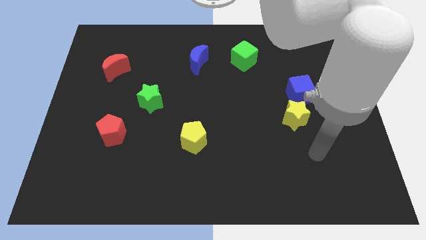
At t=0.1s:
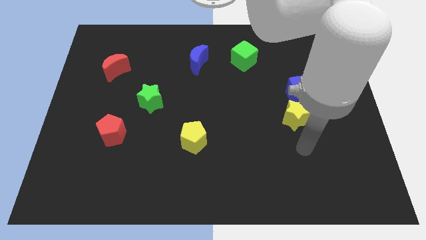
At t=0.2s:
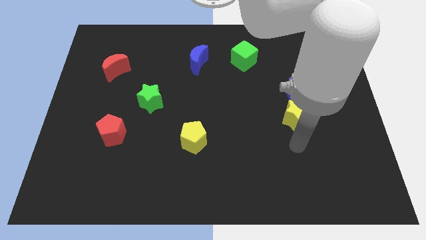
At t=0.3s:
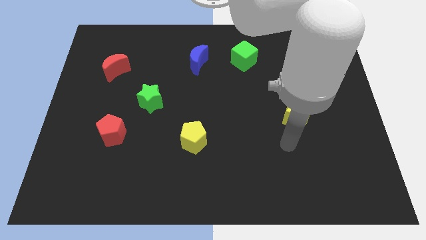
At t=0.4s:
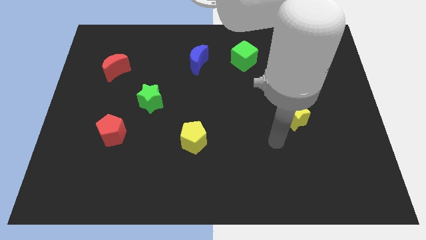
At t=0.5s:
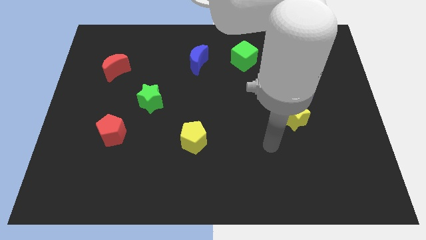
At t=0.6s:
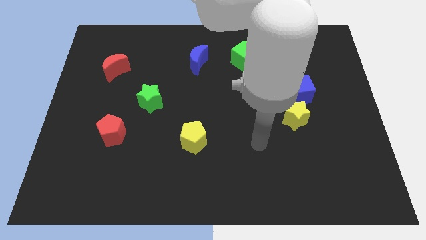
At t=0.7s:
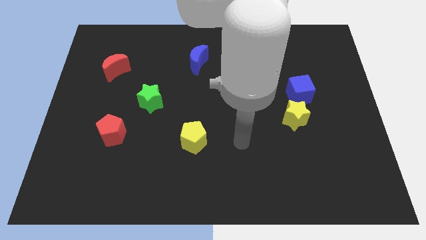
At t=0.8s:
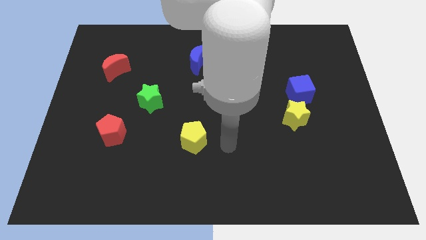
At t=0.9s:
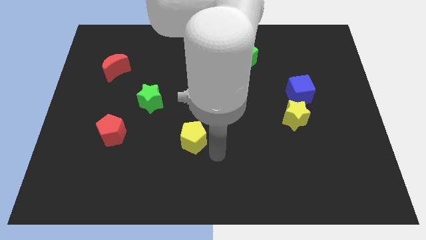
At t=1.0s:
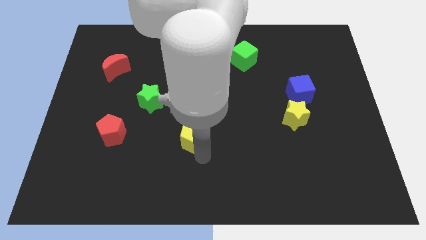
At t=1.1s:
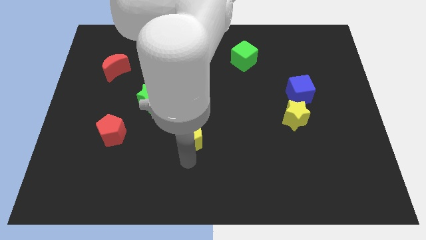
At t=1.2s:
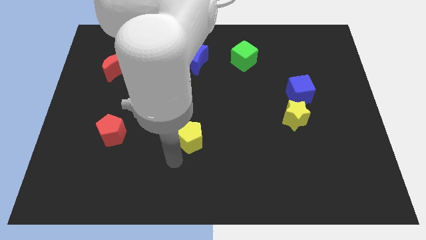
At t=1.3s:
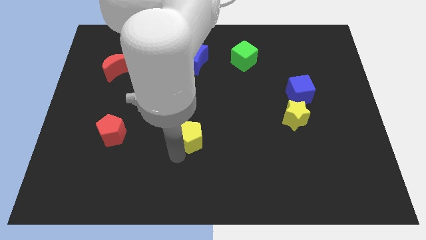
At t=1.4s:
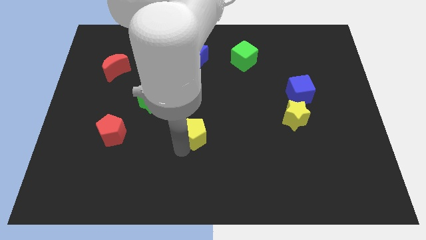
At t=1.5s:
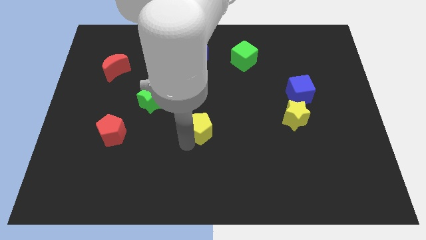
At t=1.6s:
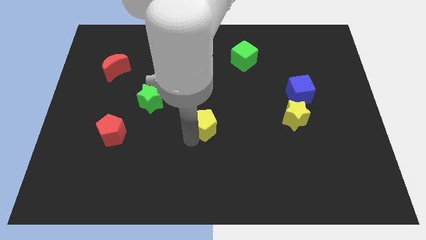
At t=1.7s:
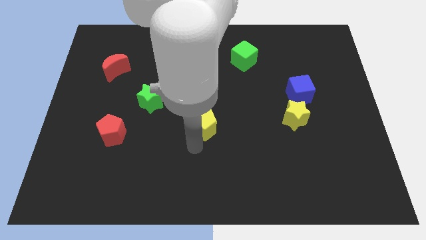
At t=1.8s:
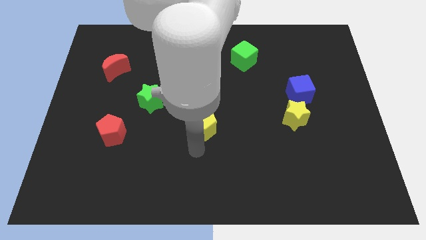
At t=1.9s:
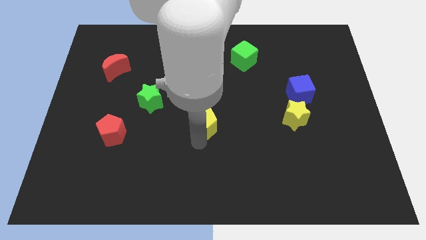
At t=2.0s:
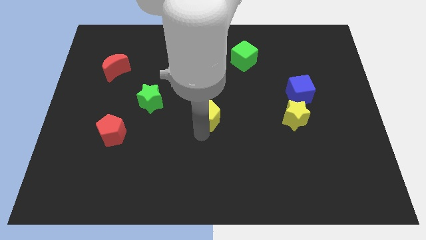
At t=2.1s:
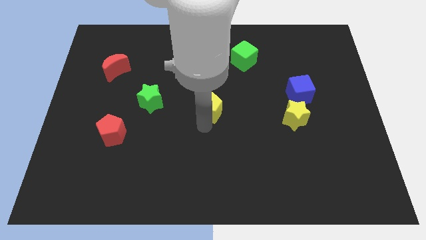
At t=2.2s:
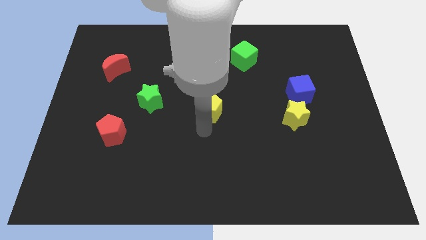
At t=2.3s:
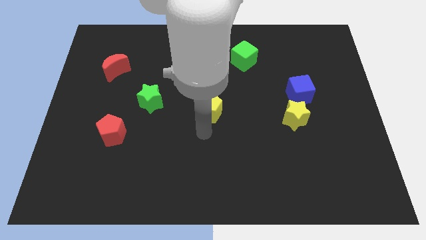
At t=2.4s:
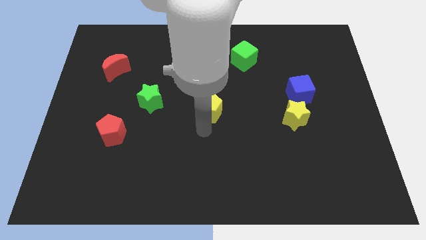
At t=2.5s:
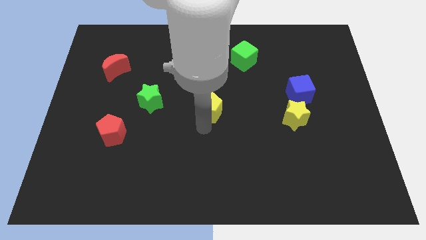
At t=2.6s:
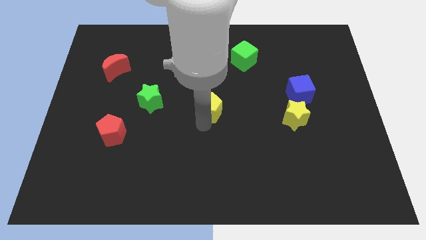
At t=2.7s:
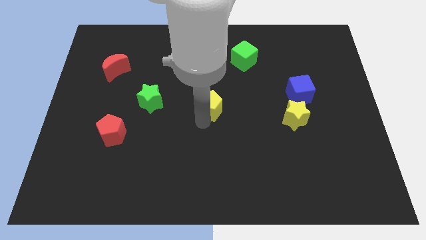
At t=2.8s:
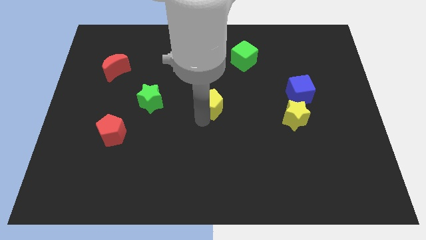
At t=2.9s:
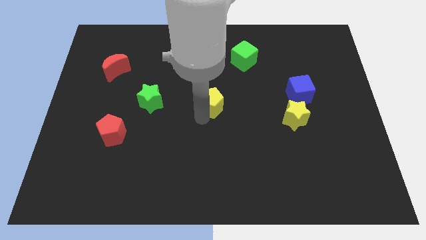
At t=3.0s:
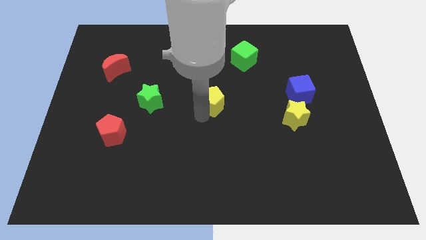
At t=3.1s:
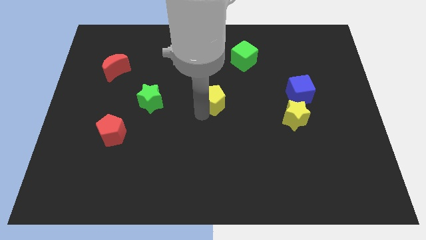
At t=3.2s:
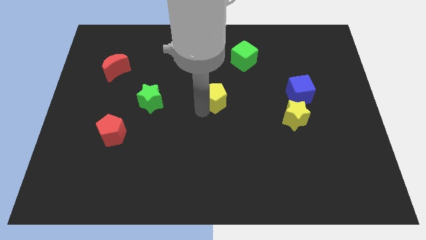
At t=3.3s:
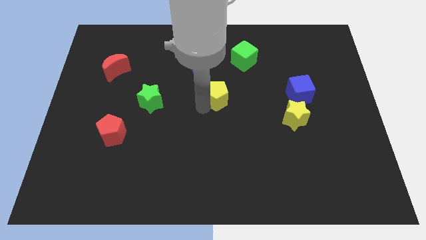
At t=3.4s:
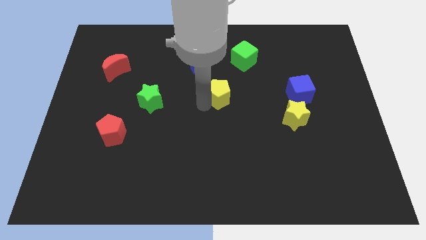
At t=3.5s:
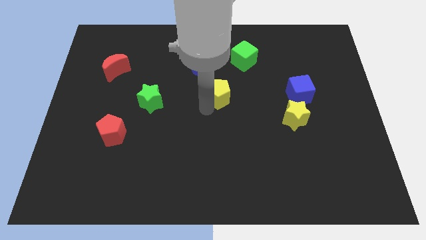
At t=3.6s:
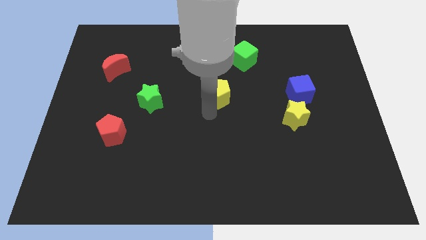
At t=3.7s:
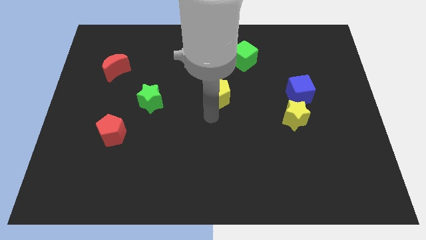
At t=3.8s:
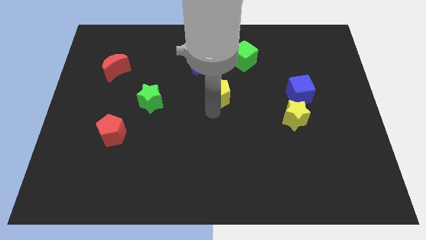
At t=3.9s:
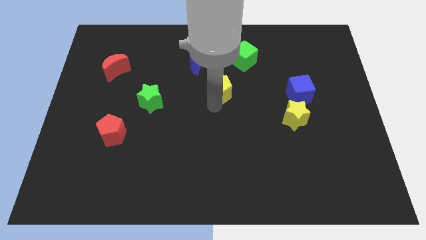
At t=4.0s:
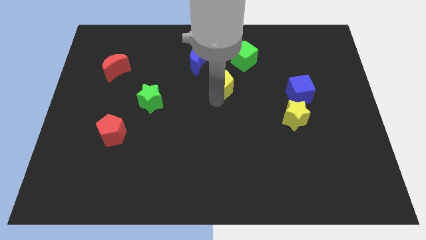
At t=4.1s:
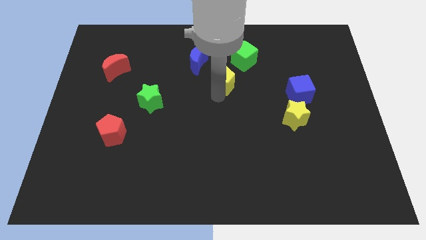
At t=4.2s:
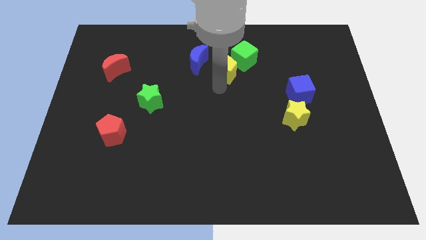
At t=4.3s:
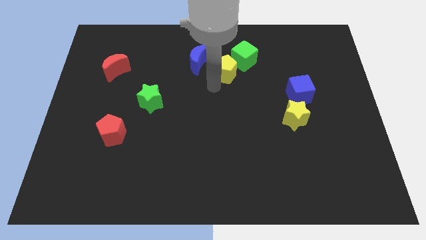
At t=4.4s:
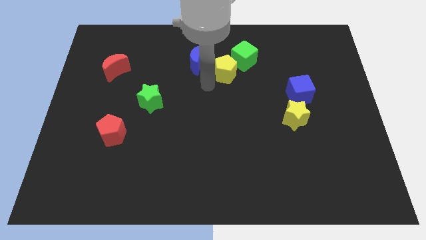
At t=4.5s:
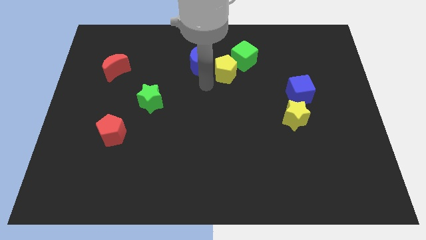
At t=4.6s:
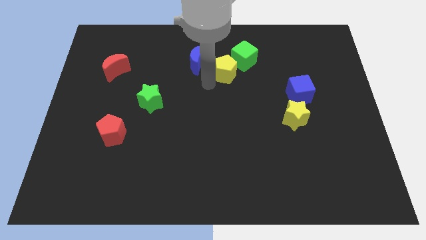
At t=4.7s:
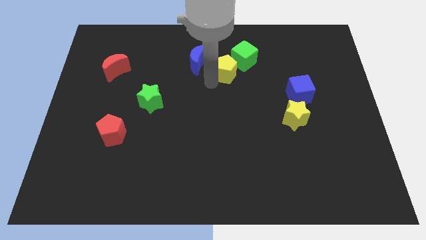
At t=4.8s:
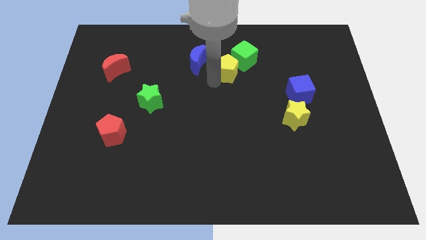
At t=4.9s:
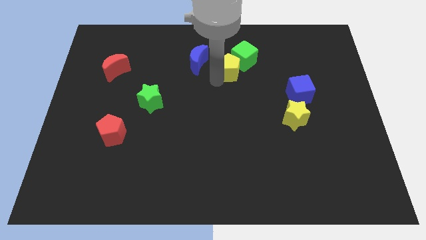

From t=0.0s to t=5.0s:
move the yellow pentagon towards the green cube

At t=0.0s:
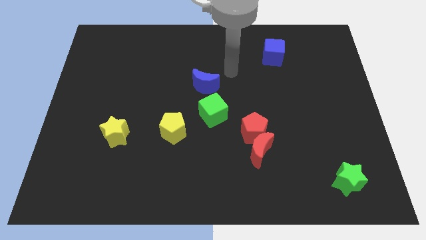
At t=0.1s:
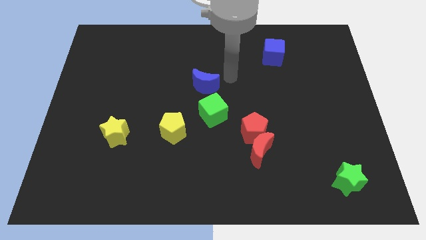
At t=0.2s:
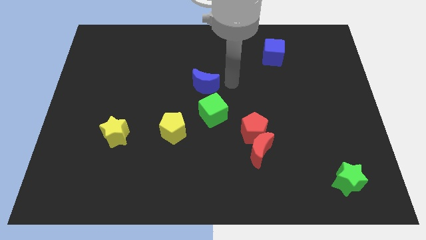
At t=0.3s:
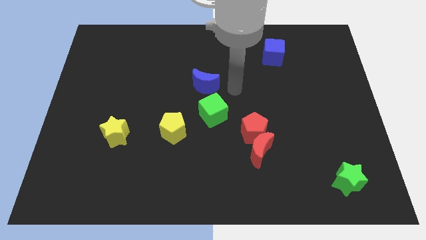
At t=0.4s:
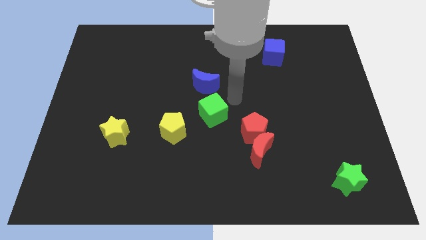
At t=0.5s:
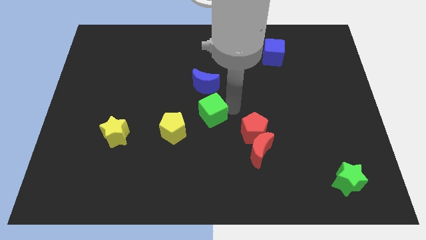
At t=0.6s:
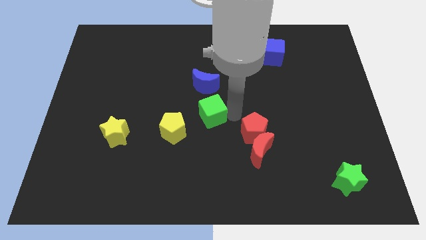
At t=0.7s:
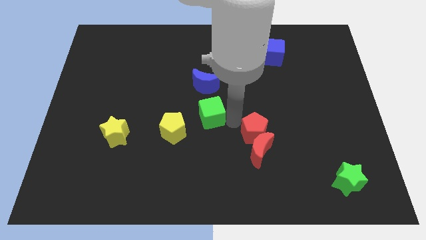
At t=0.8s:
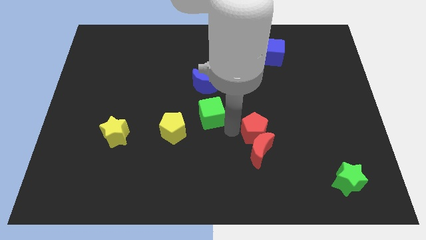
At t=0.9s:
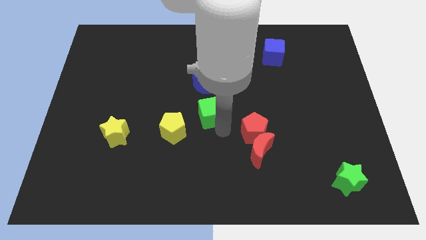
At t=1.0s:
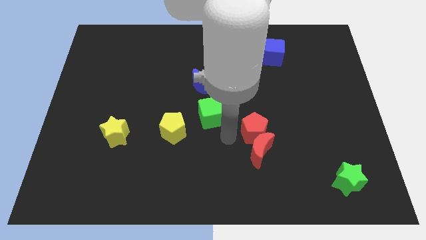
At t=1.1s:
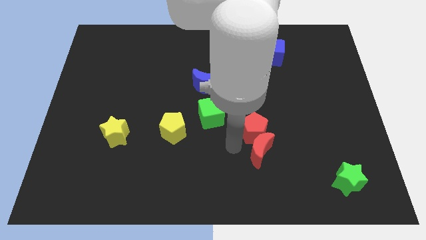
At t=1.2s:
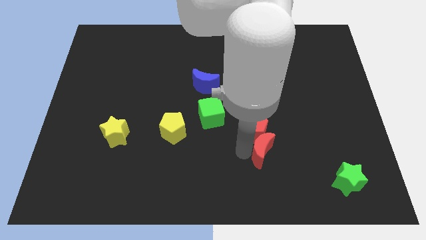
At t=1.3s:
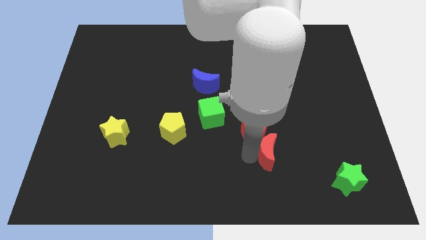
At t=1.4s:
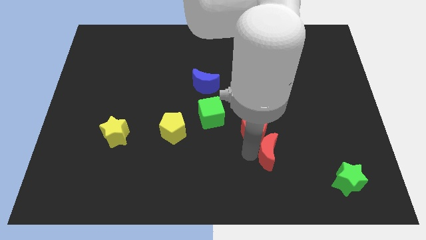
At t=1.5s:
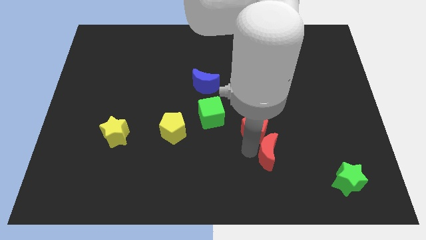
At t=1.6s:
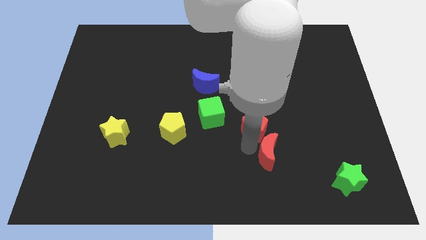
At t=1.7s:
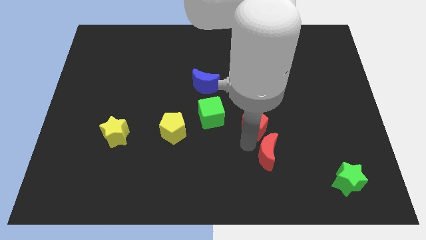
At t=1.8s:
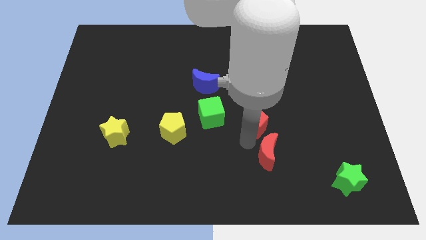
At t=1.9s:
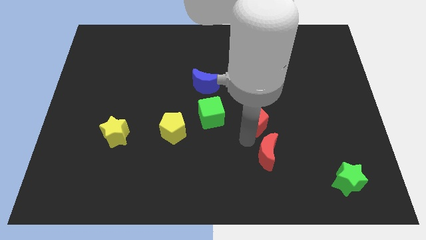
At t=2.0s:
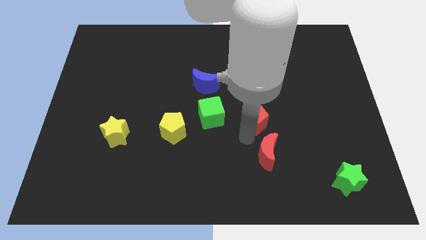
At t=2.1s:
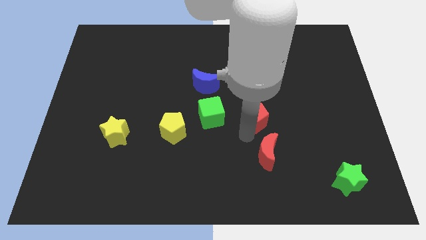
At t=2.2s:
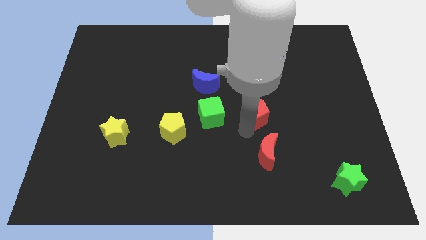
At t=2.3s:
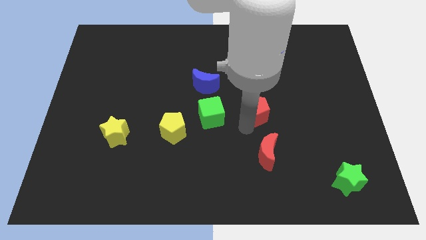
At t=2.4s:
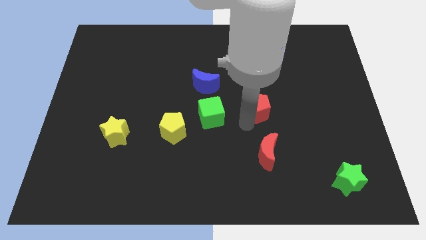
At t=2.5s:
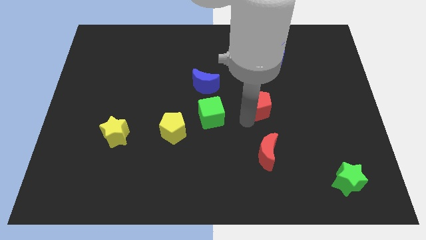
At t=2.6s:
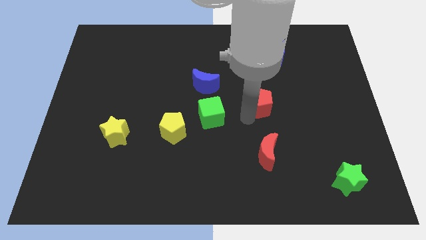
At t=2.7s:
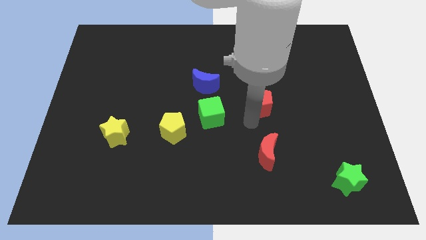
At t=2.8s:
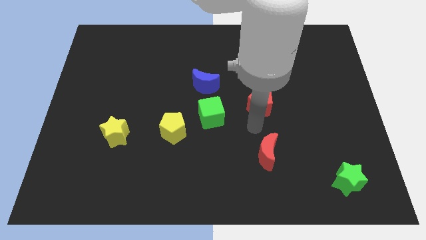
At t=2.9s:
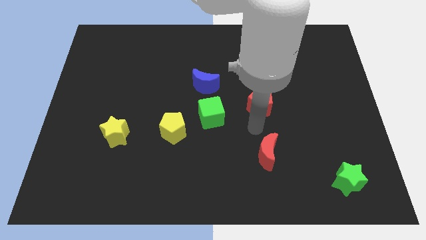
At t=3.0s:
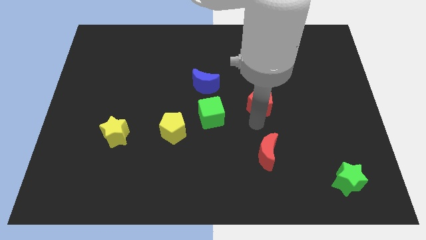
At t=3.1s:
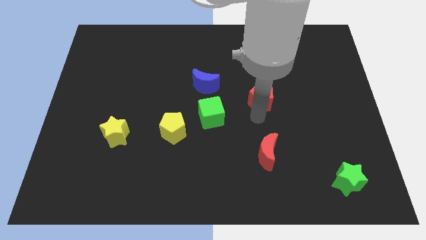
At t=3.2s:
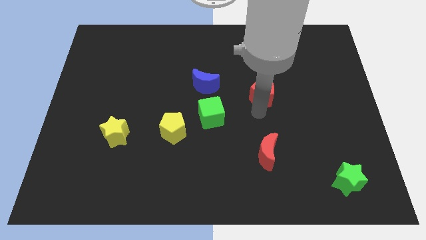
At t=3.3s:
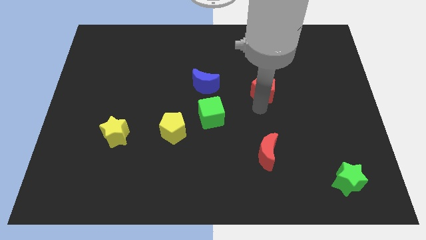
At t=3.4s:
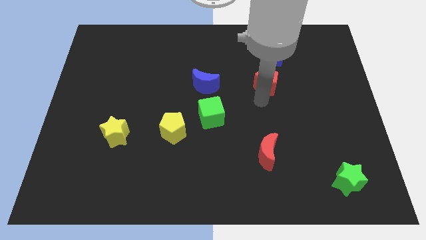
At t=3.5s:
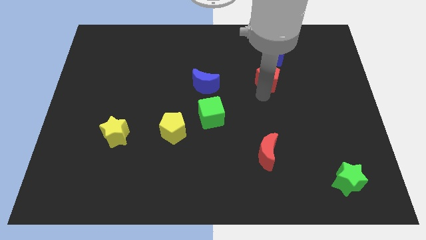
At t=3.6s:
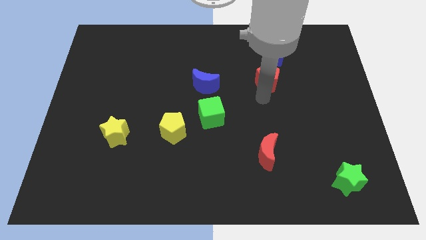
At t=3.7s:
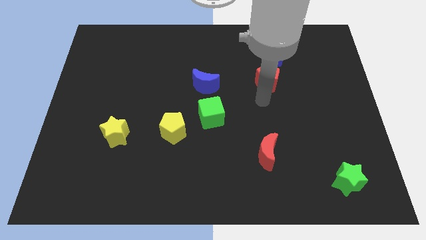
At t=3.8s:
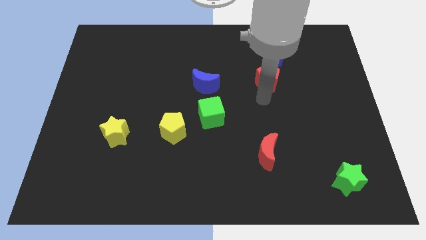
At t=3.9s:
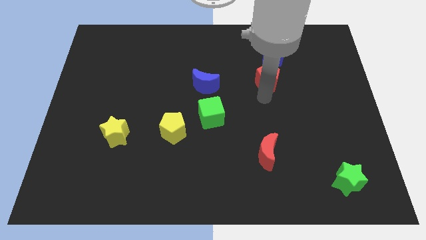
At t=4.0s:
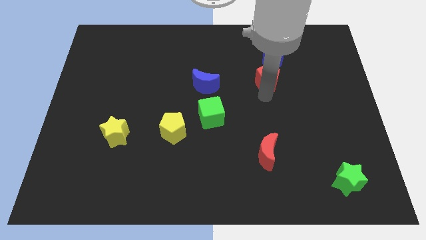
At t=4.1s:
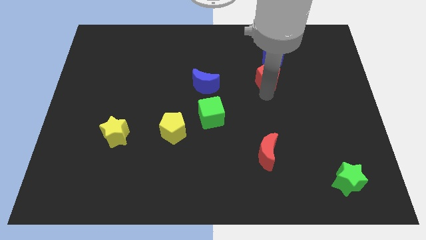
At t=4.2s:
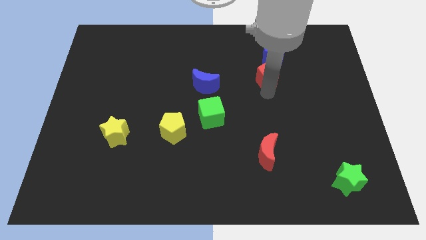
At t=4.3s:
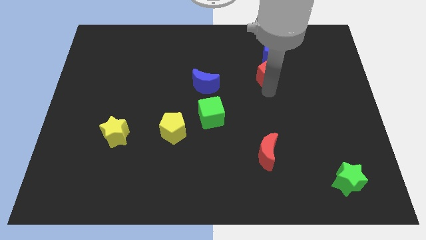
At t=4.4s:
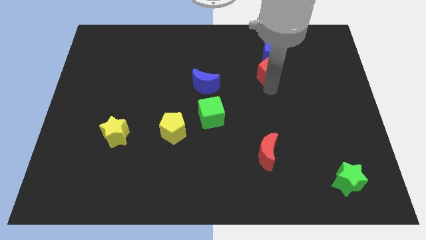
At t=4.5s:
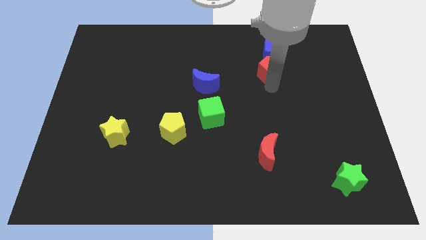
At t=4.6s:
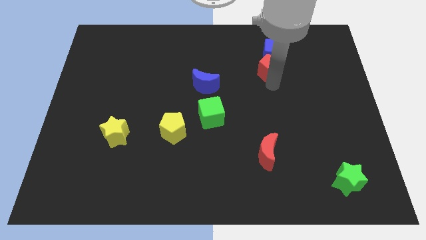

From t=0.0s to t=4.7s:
slide the red pentagon next to the blue cube
